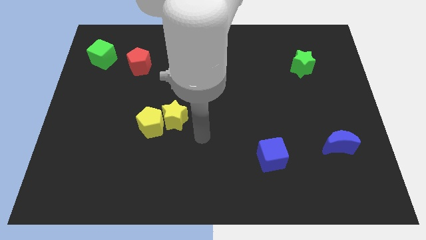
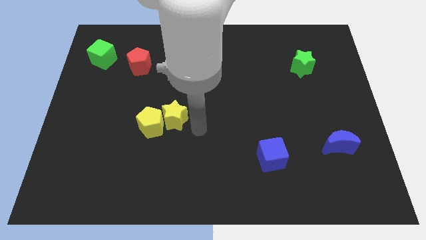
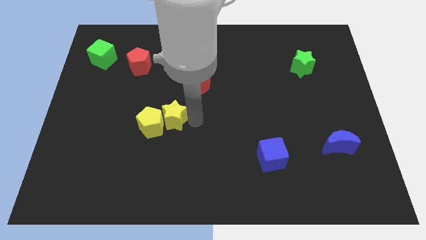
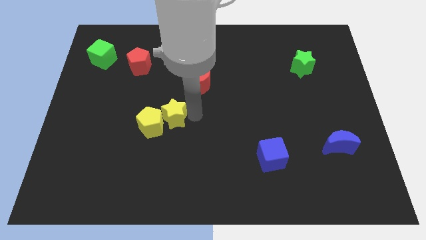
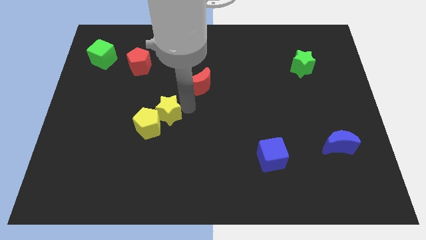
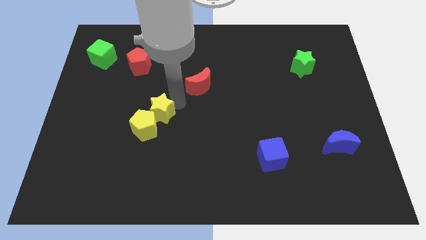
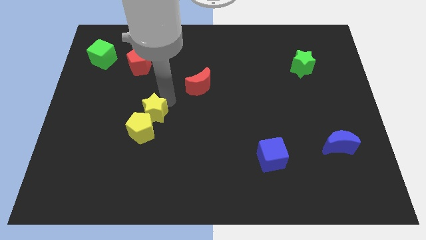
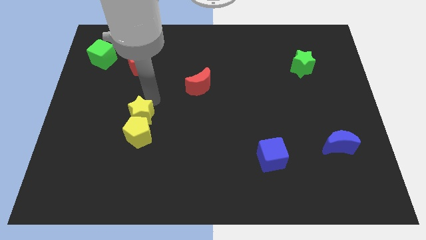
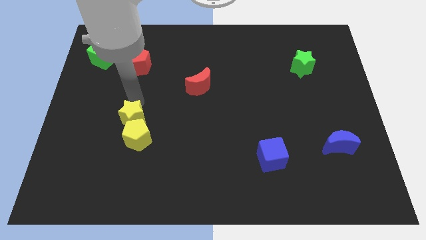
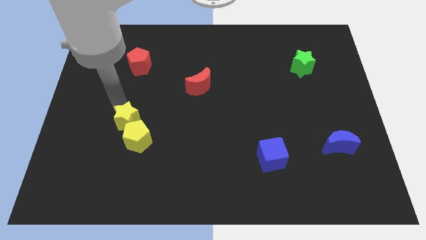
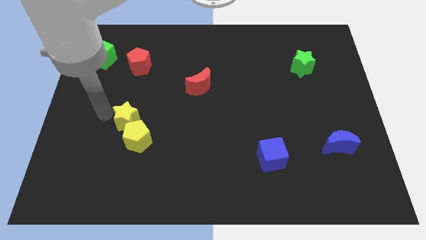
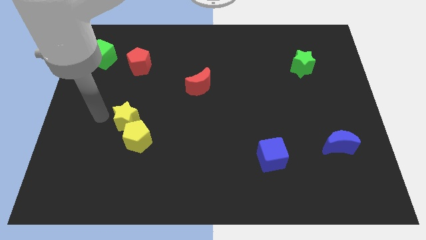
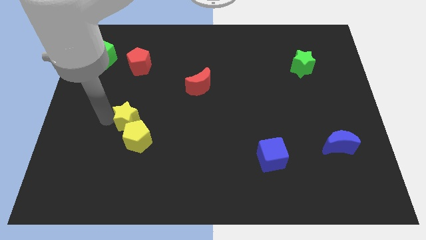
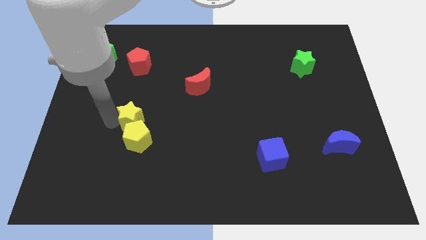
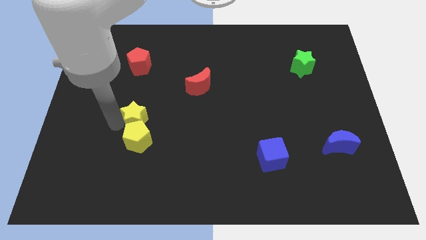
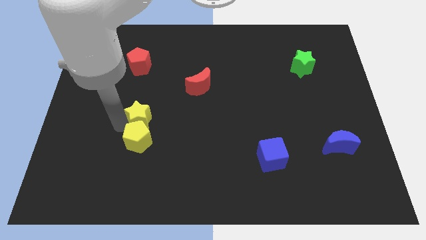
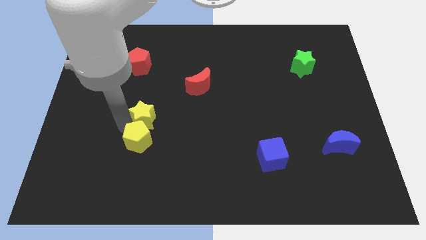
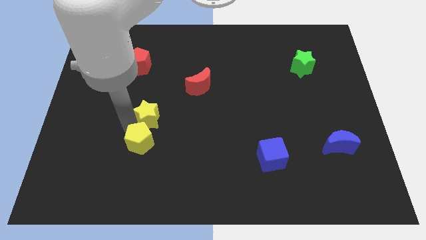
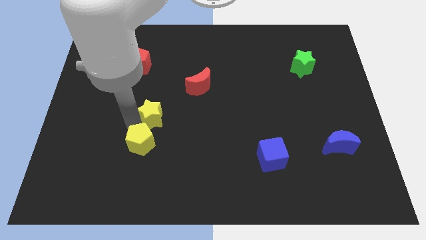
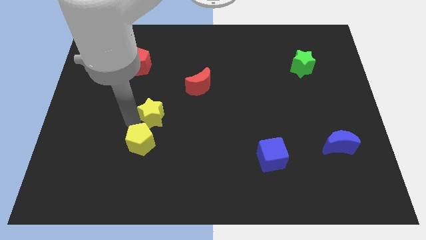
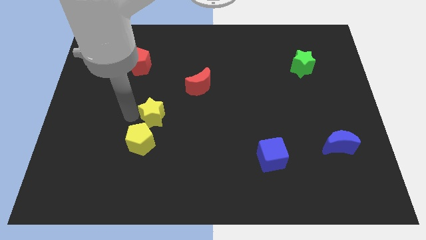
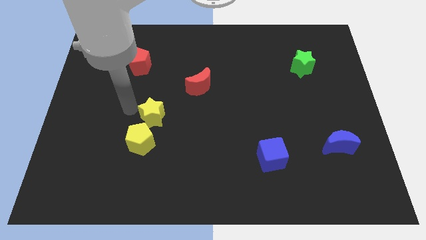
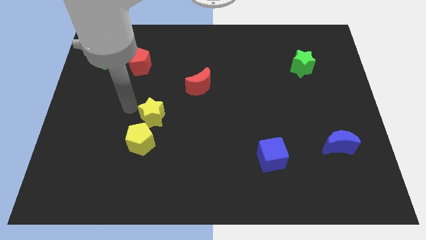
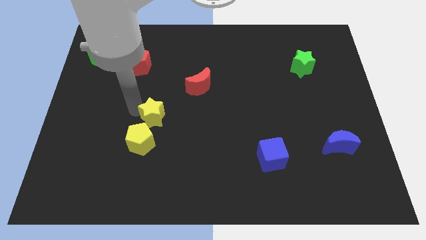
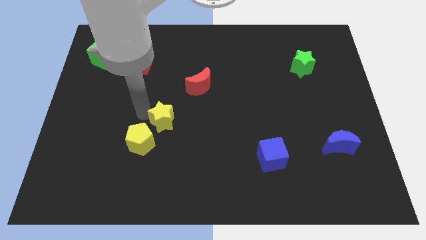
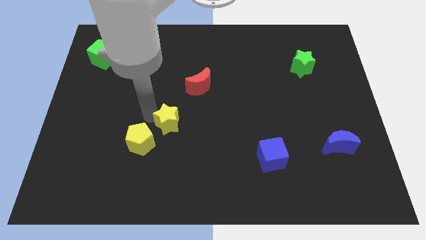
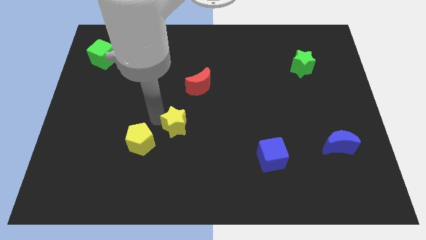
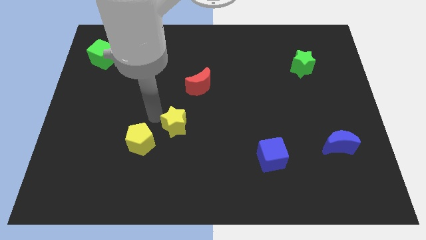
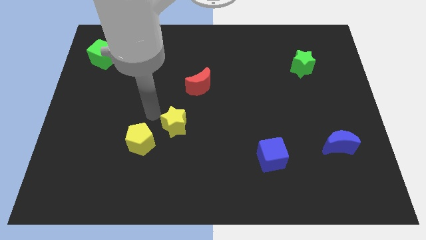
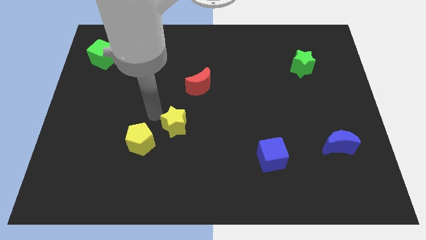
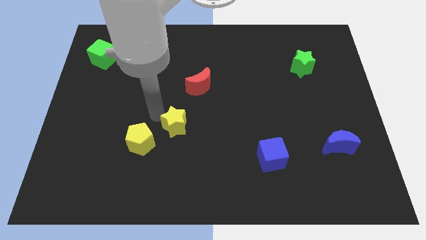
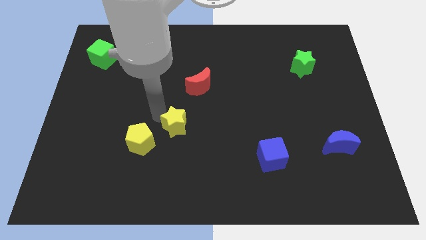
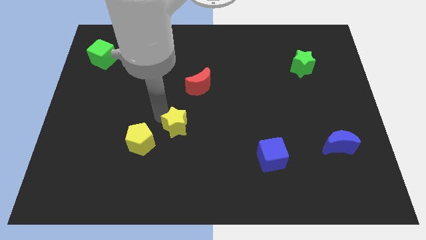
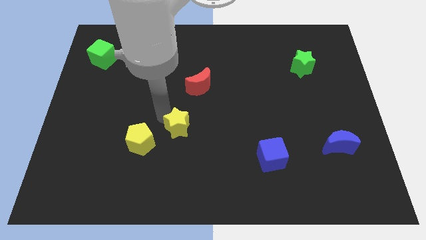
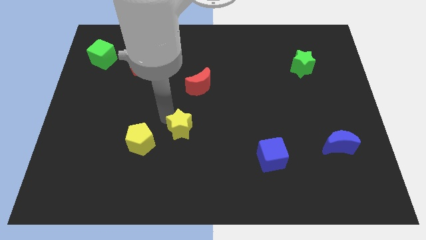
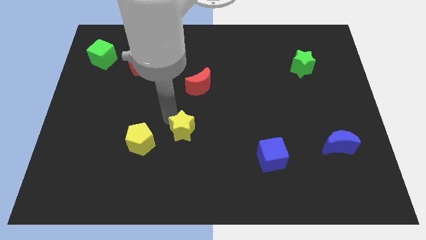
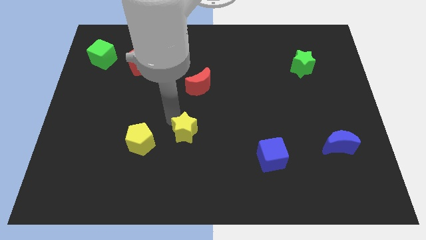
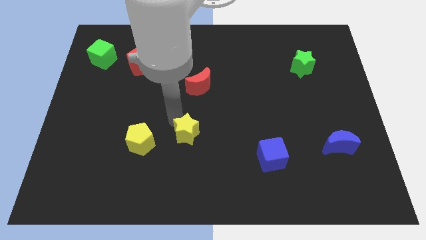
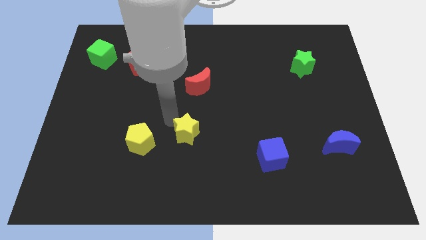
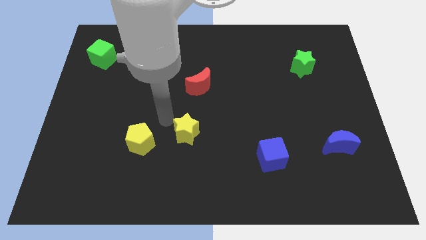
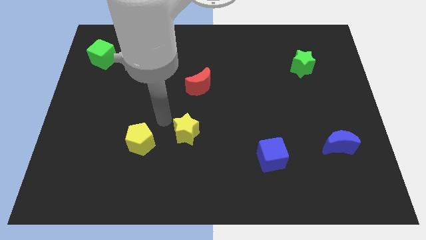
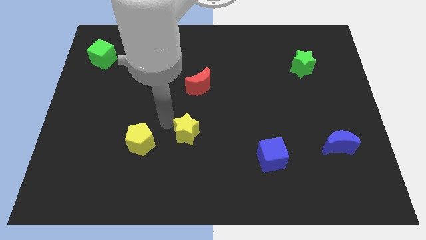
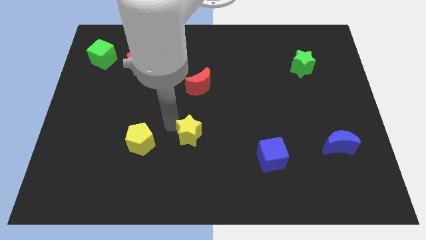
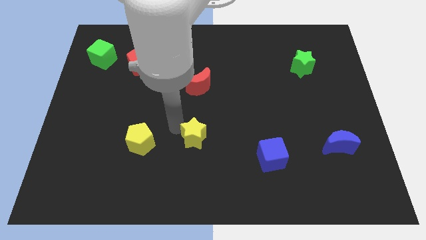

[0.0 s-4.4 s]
slide the yellow star diagonally downwards and right a little bit

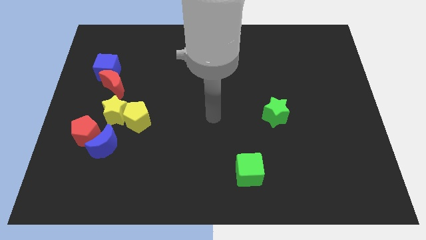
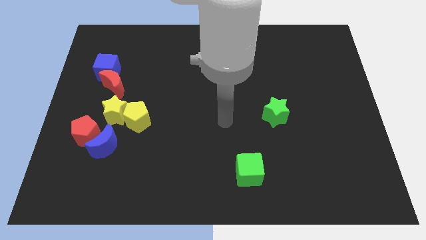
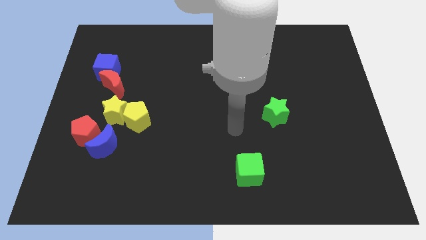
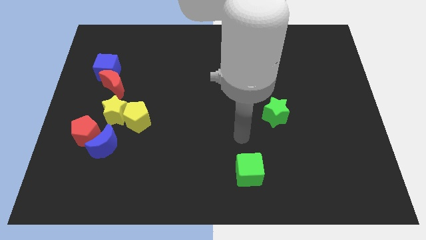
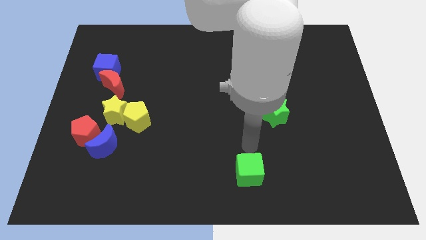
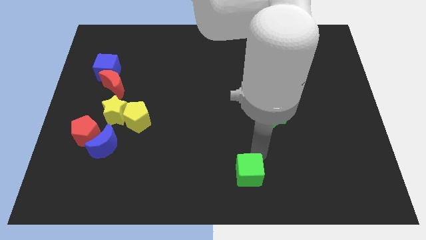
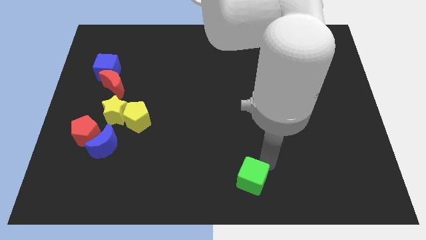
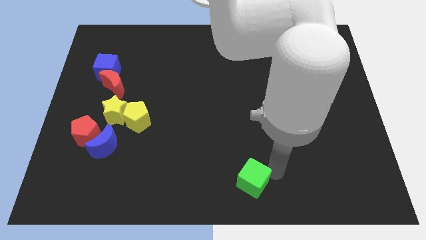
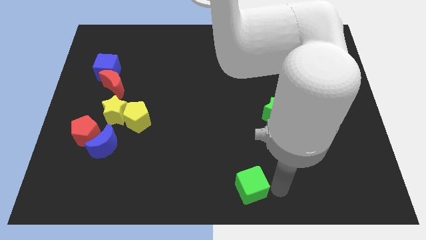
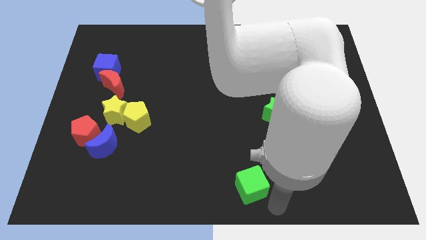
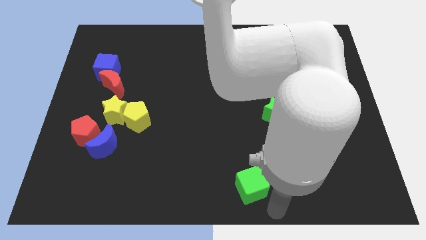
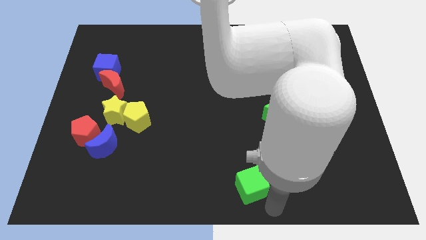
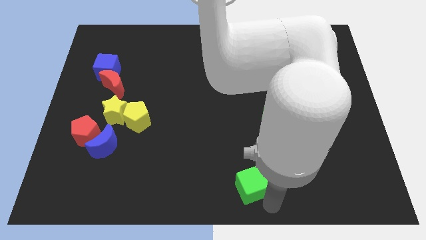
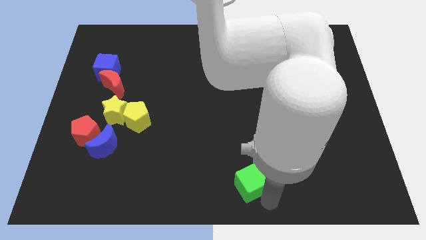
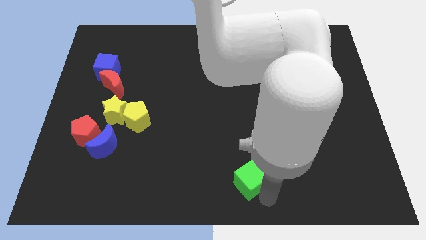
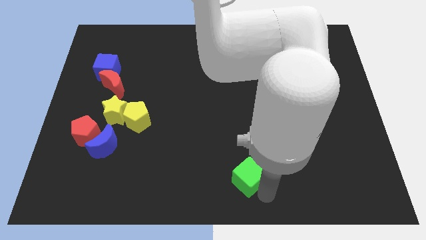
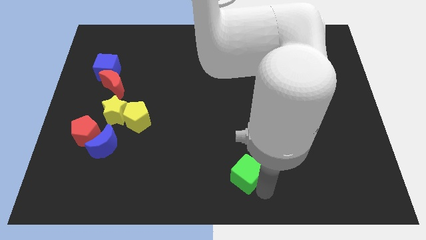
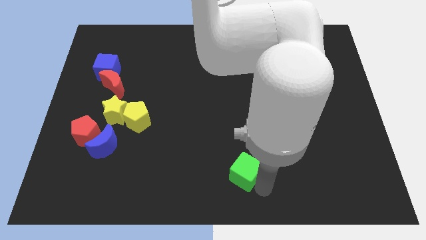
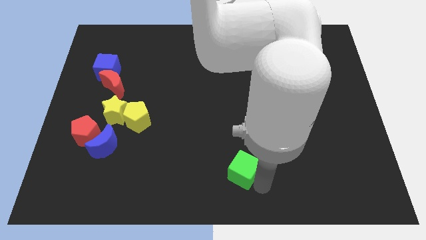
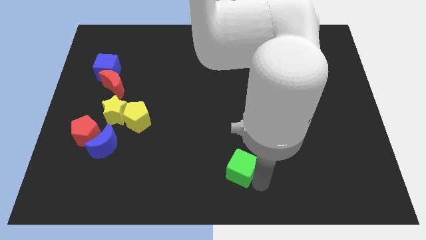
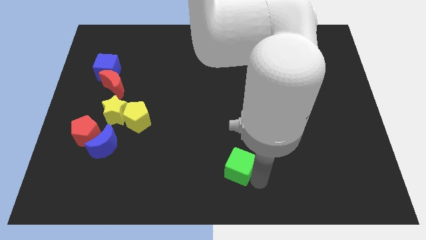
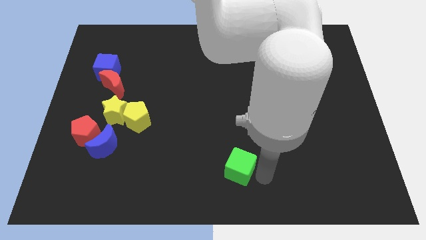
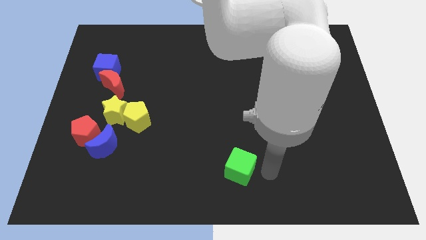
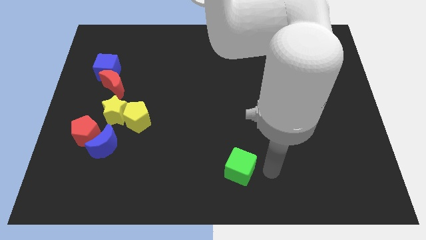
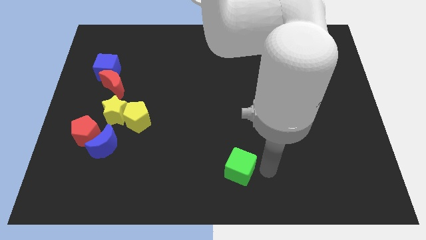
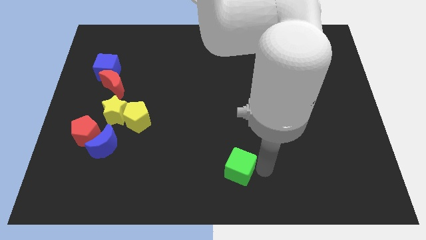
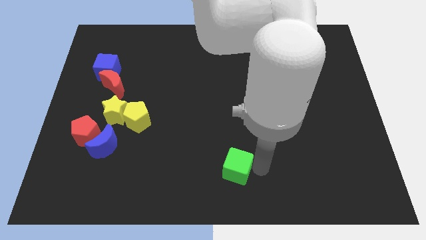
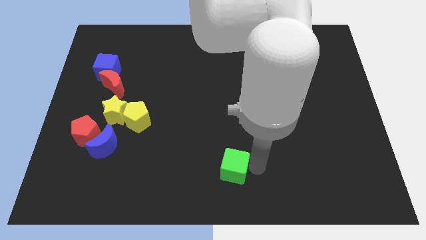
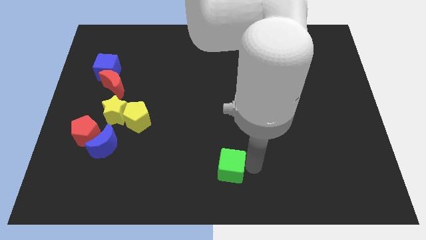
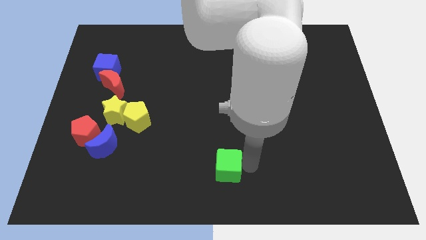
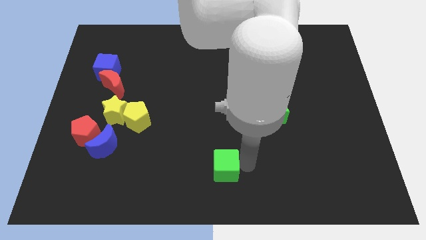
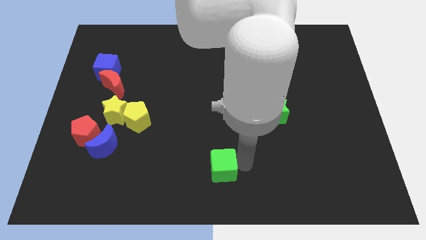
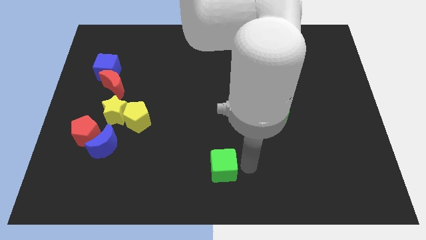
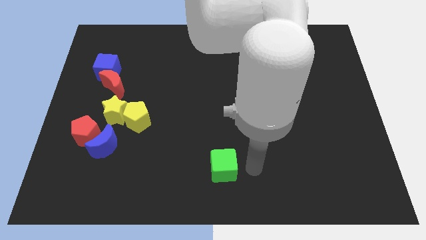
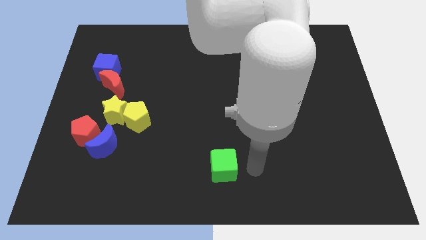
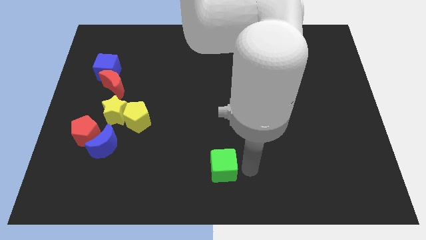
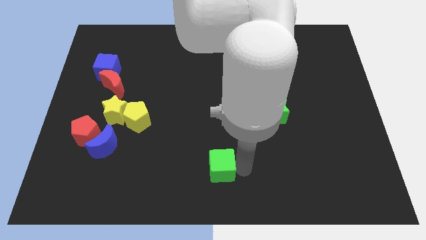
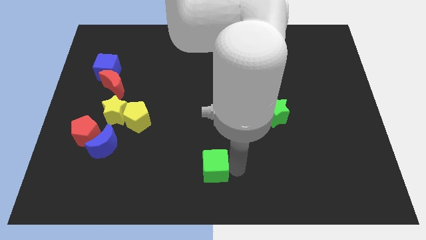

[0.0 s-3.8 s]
slide the green cube to the left a little
